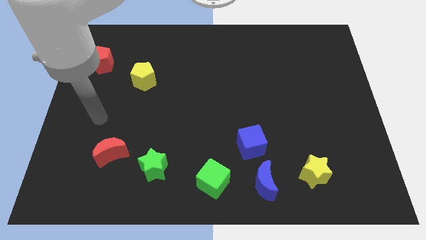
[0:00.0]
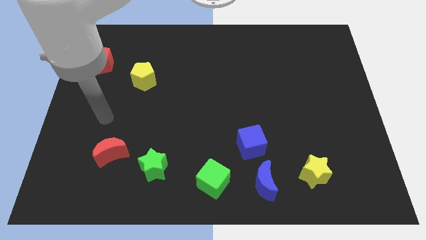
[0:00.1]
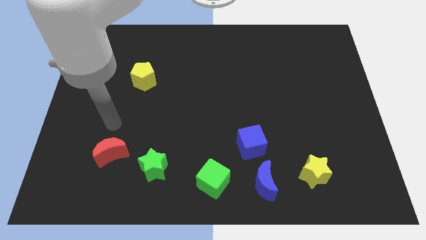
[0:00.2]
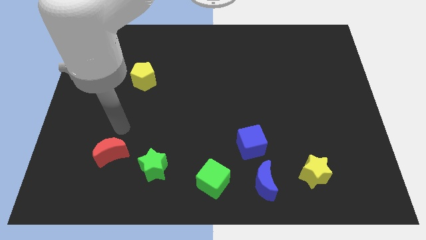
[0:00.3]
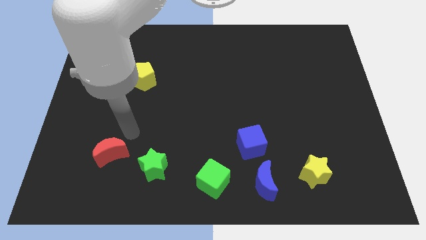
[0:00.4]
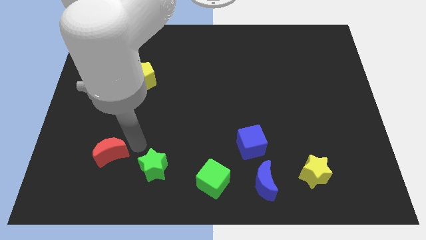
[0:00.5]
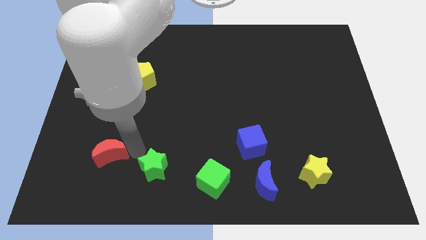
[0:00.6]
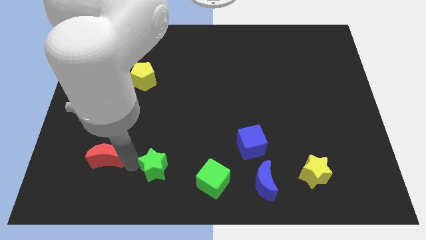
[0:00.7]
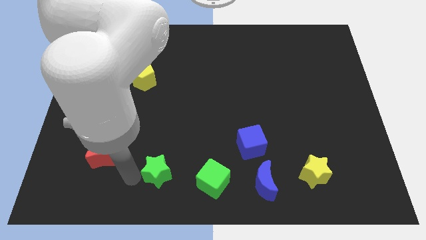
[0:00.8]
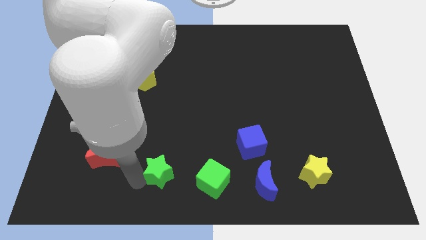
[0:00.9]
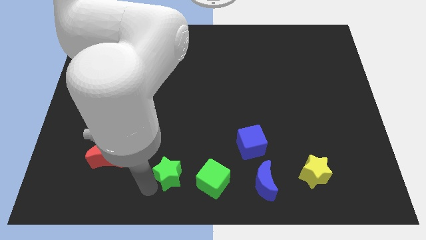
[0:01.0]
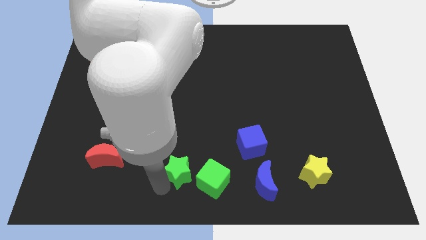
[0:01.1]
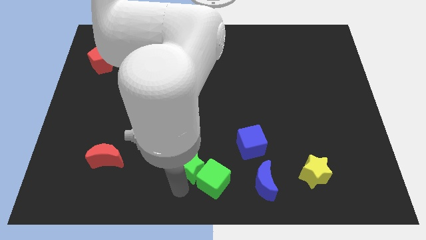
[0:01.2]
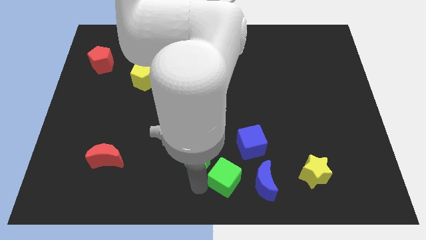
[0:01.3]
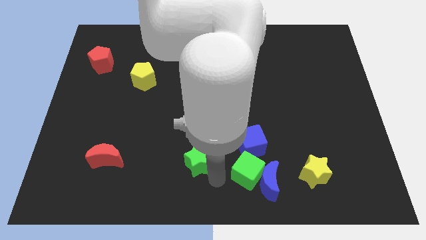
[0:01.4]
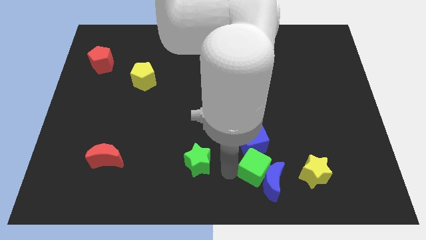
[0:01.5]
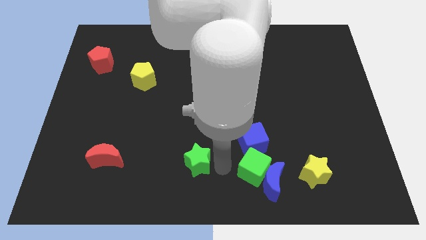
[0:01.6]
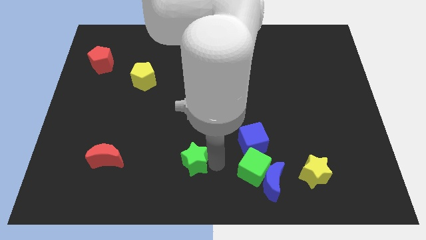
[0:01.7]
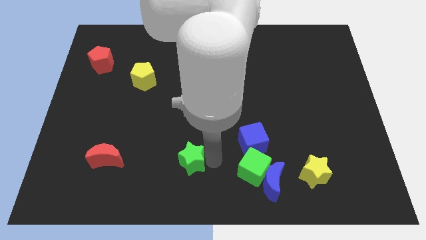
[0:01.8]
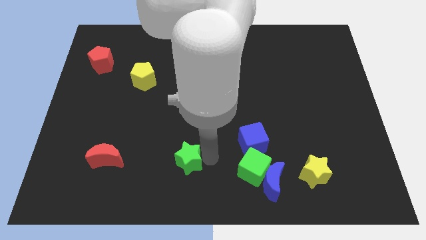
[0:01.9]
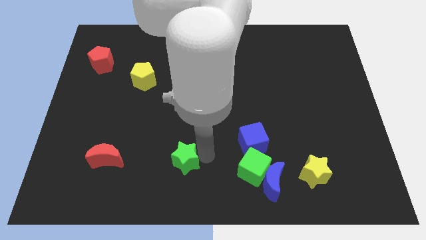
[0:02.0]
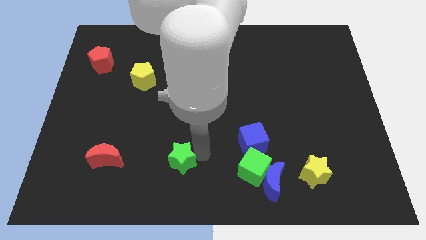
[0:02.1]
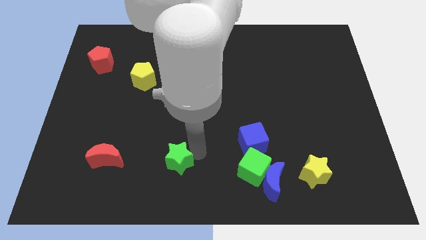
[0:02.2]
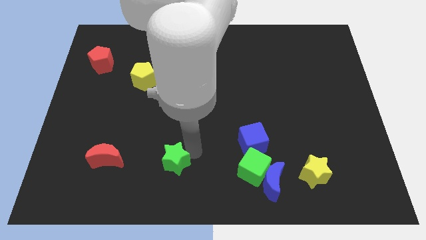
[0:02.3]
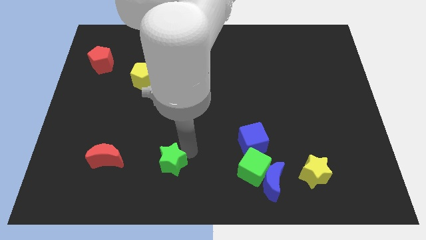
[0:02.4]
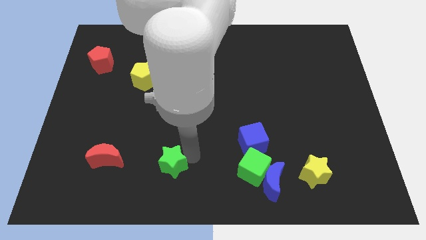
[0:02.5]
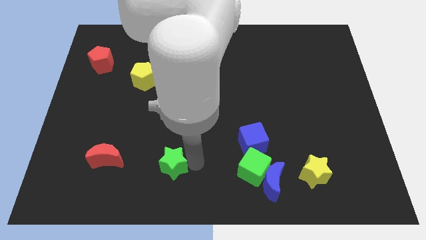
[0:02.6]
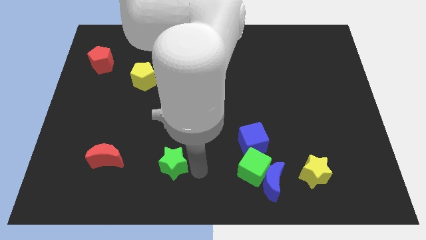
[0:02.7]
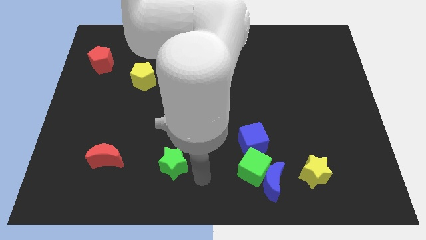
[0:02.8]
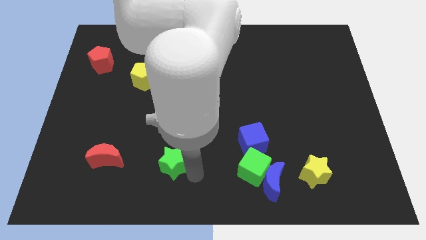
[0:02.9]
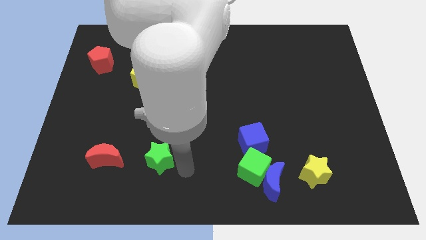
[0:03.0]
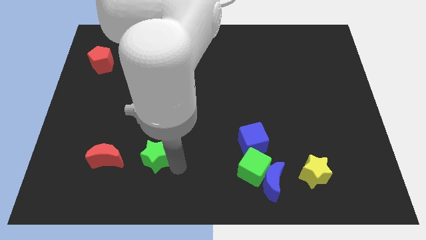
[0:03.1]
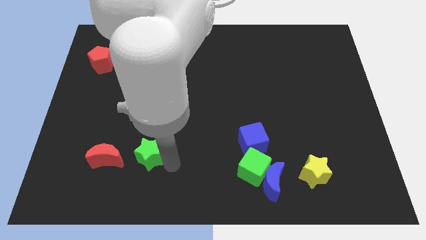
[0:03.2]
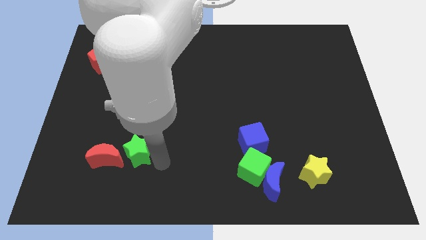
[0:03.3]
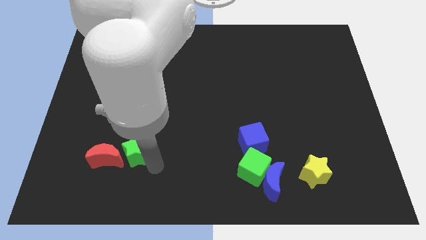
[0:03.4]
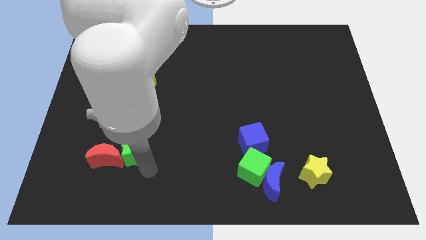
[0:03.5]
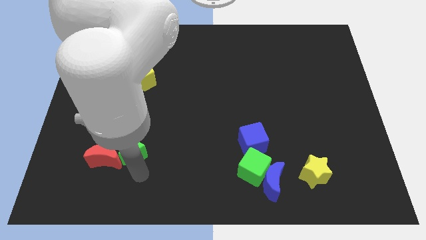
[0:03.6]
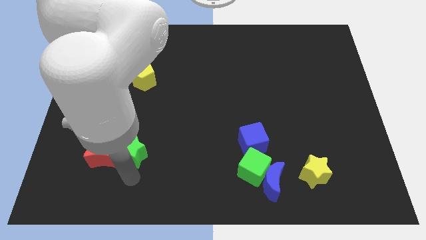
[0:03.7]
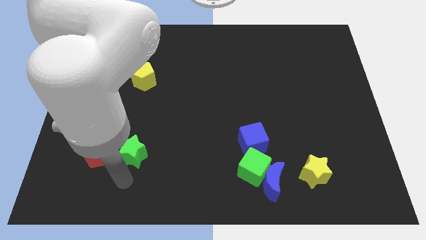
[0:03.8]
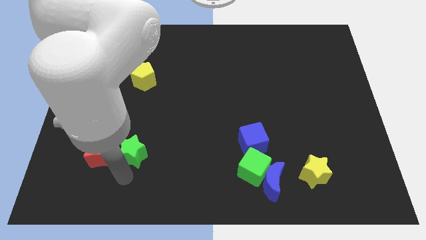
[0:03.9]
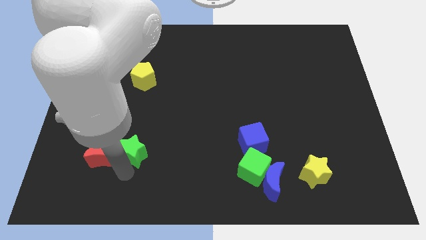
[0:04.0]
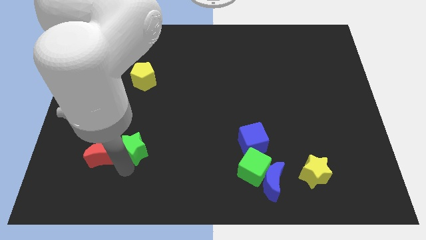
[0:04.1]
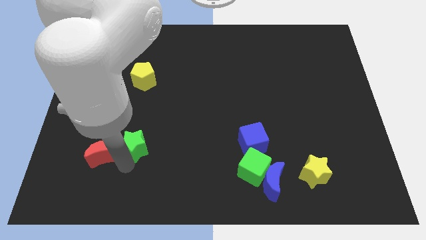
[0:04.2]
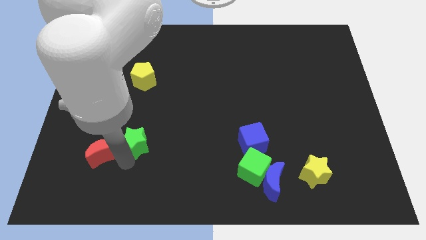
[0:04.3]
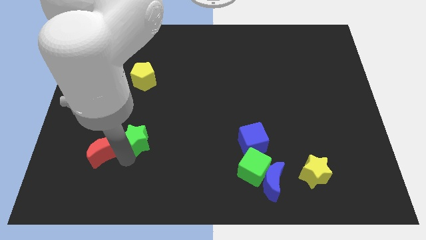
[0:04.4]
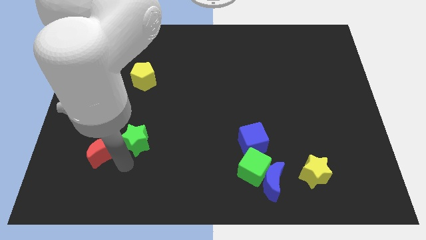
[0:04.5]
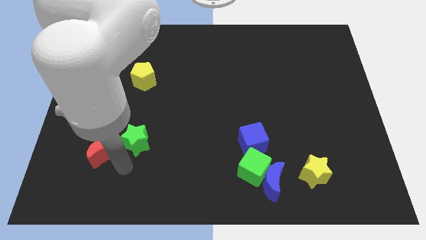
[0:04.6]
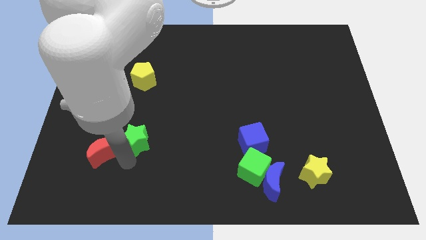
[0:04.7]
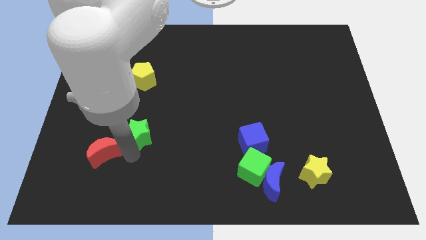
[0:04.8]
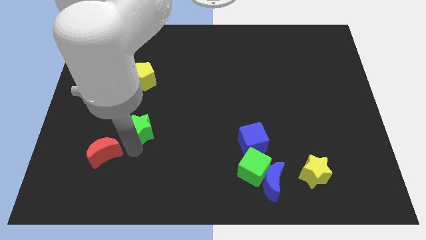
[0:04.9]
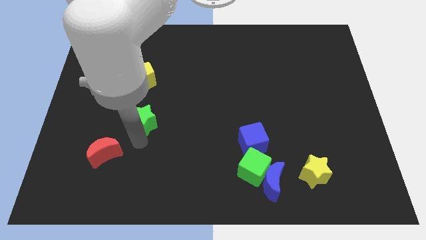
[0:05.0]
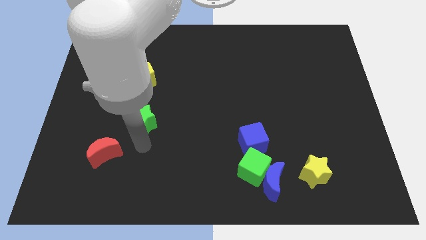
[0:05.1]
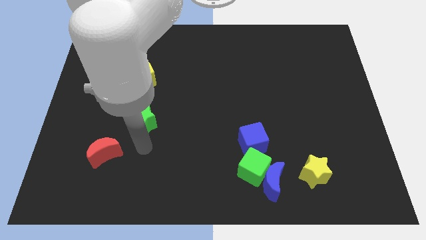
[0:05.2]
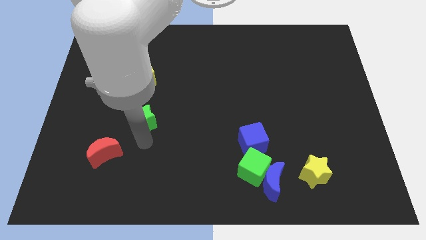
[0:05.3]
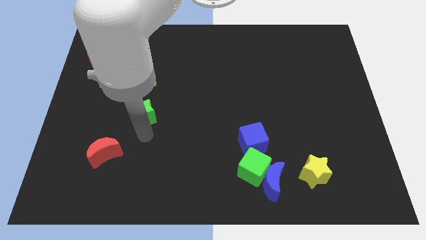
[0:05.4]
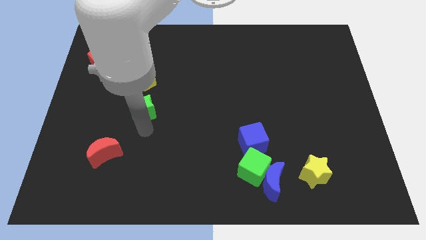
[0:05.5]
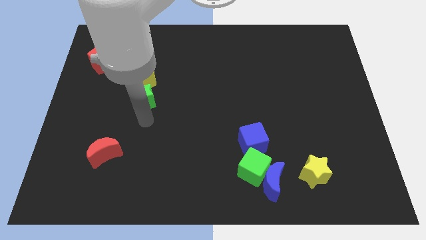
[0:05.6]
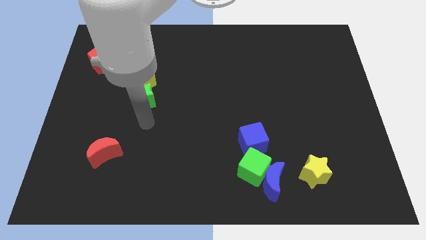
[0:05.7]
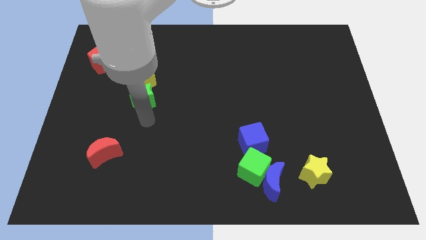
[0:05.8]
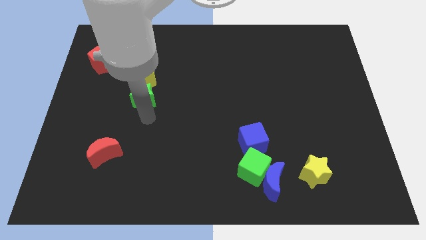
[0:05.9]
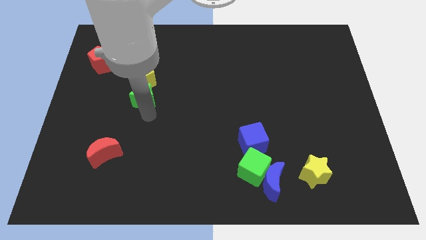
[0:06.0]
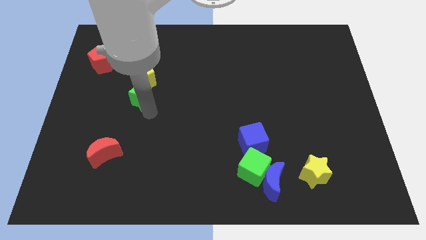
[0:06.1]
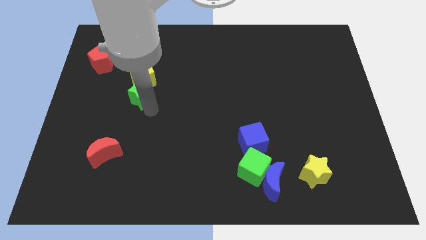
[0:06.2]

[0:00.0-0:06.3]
slide the green star to the yellow pentagon

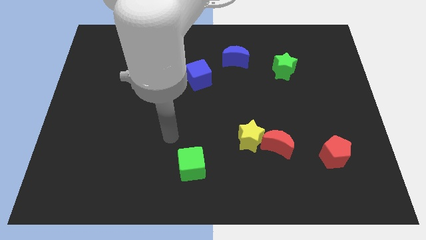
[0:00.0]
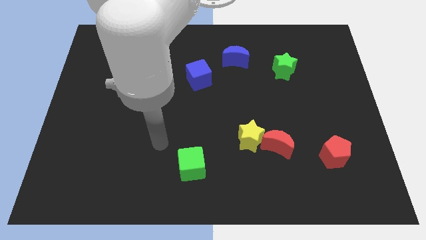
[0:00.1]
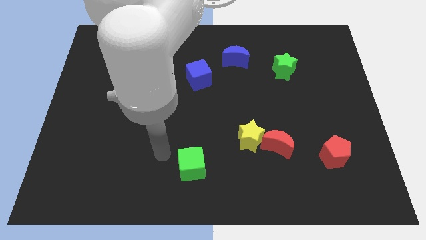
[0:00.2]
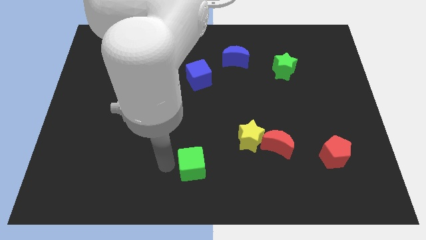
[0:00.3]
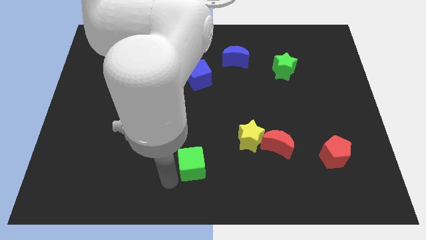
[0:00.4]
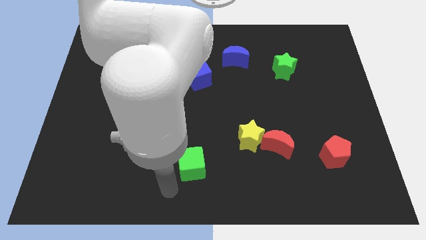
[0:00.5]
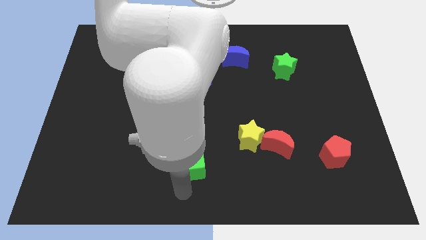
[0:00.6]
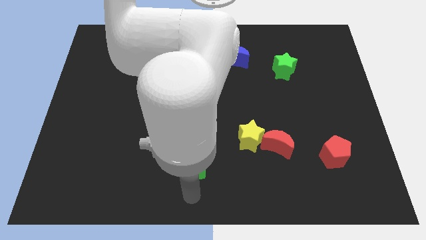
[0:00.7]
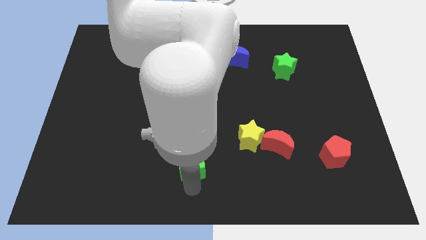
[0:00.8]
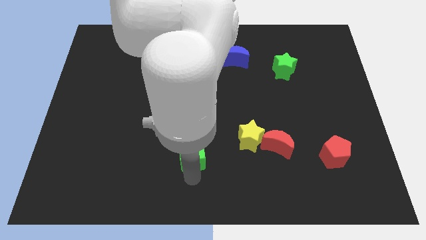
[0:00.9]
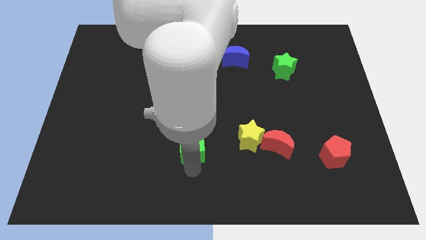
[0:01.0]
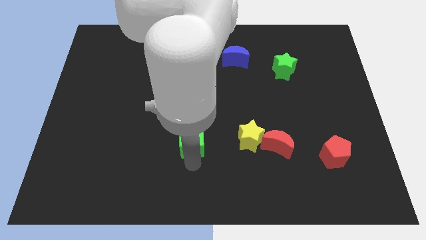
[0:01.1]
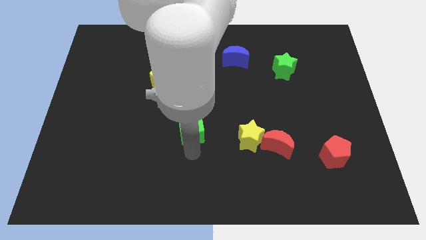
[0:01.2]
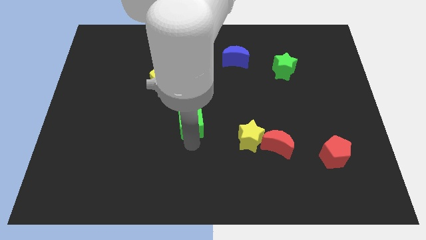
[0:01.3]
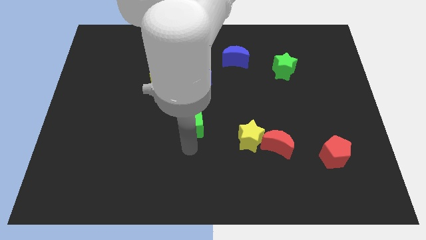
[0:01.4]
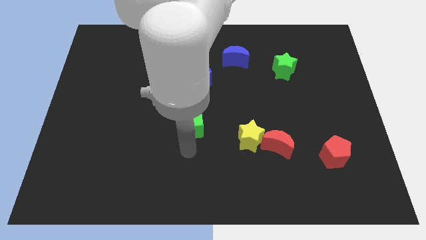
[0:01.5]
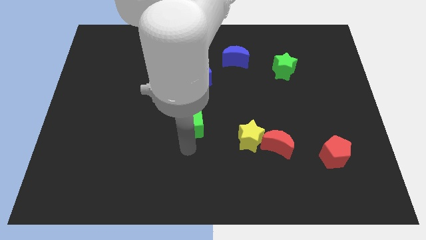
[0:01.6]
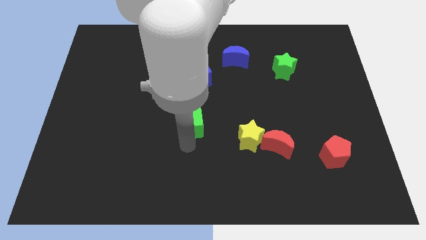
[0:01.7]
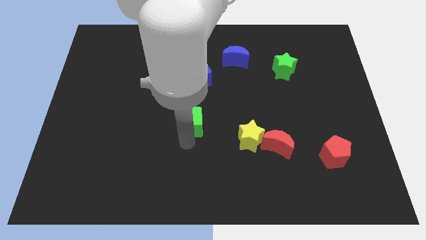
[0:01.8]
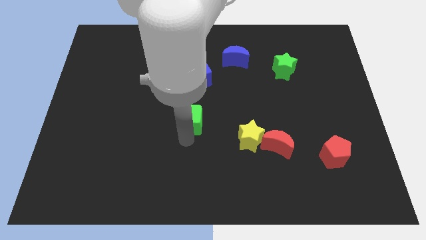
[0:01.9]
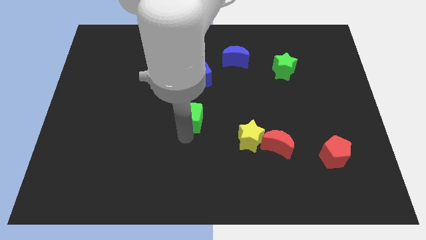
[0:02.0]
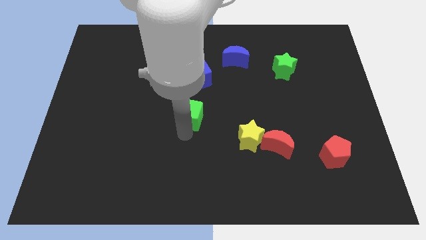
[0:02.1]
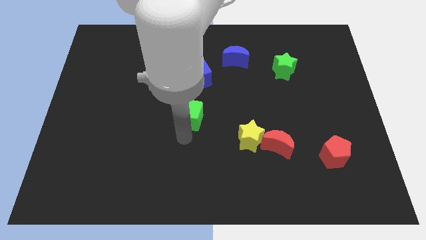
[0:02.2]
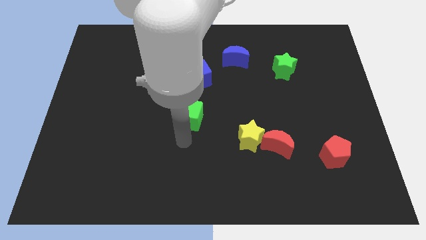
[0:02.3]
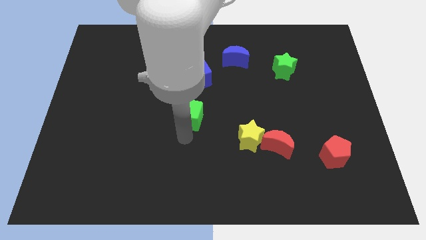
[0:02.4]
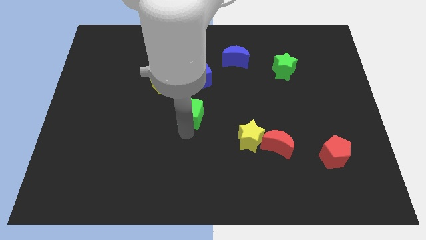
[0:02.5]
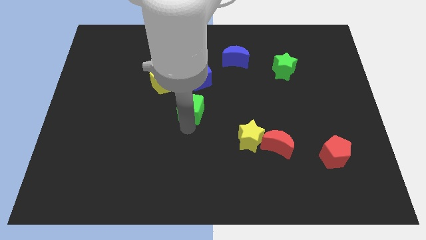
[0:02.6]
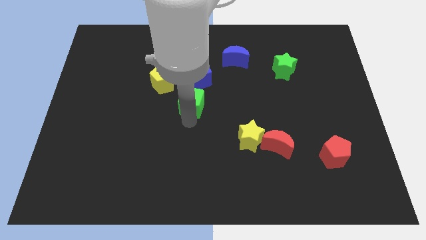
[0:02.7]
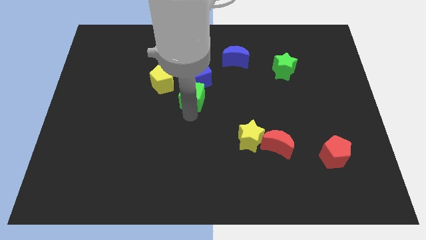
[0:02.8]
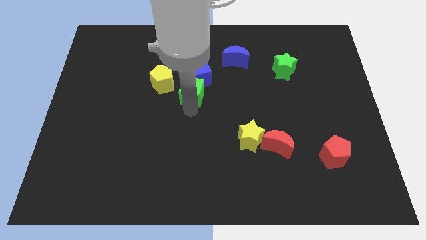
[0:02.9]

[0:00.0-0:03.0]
push the green cube next to the blue cube
